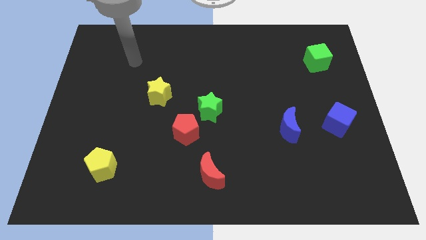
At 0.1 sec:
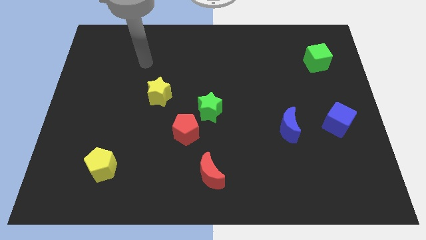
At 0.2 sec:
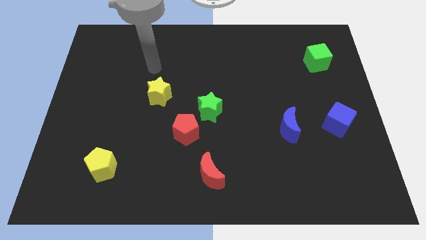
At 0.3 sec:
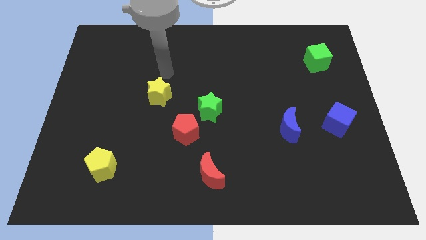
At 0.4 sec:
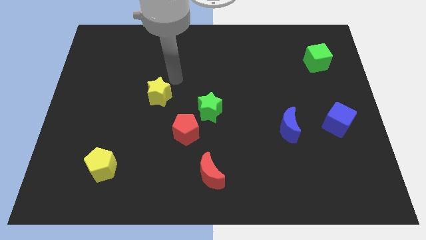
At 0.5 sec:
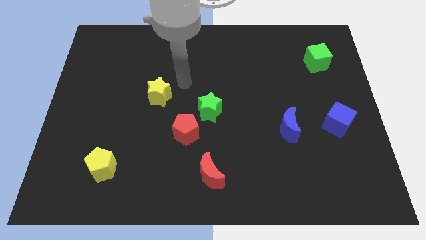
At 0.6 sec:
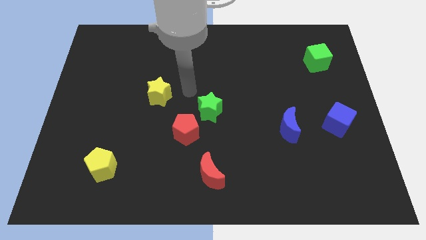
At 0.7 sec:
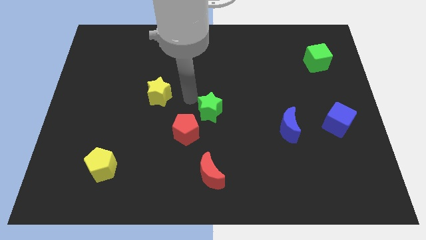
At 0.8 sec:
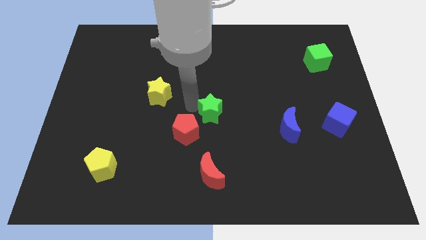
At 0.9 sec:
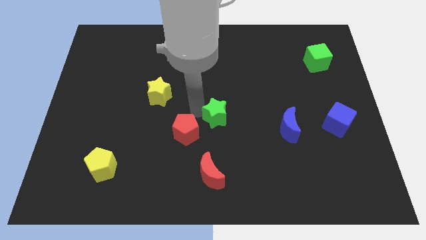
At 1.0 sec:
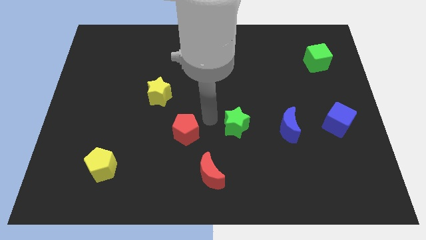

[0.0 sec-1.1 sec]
separate the red pentagon from the green star

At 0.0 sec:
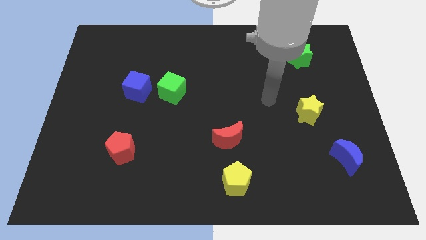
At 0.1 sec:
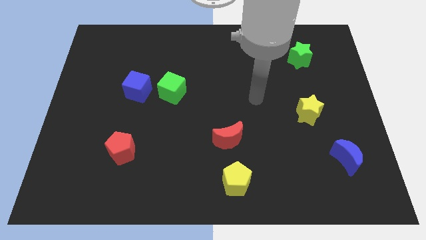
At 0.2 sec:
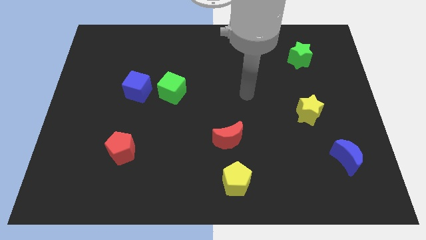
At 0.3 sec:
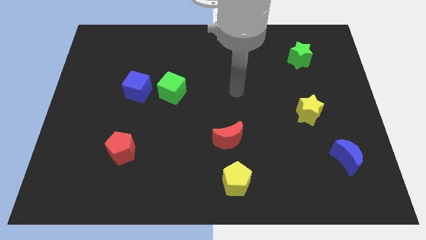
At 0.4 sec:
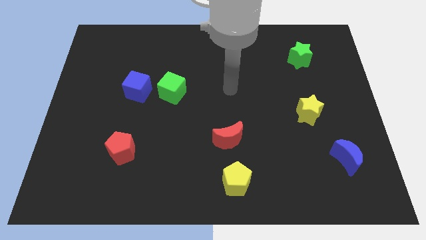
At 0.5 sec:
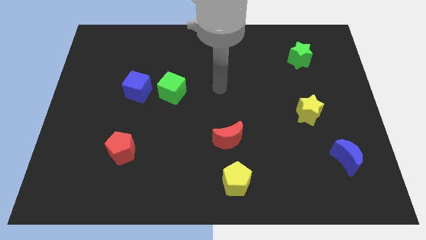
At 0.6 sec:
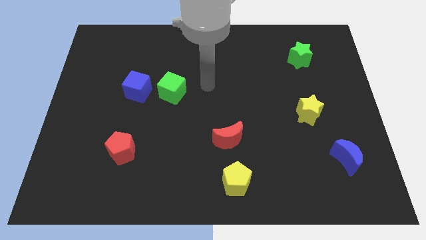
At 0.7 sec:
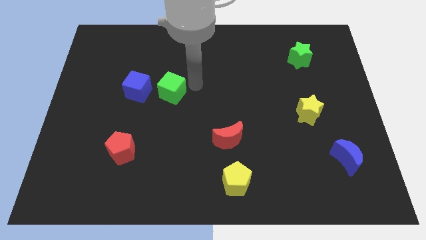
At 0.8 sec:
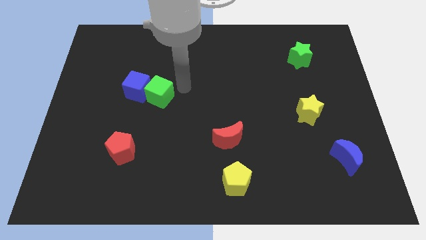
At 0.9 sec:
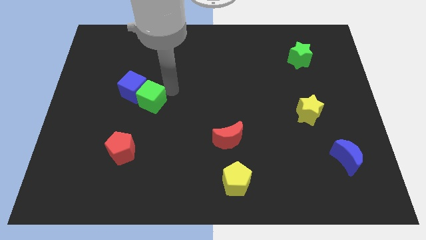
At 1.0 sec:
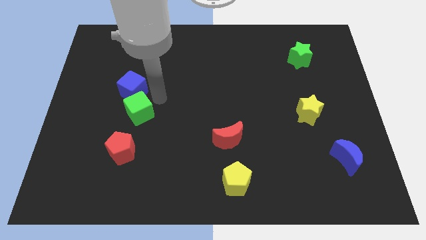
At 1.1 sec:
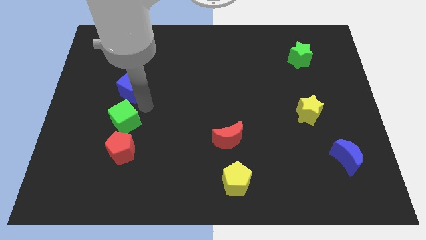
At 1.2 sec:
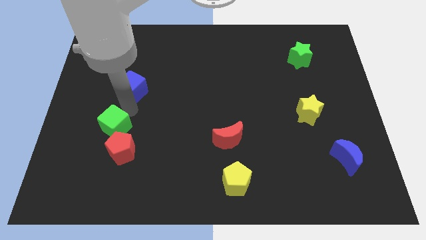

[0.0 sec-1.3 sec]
separate the blue cube from the green cube

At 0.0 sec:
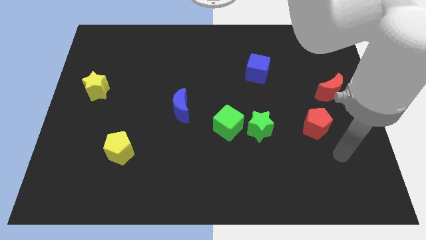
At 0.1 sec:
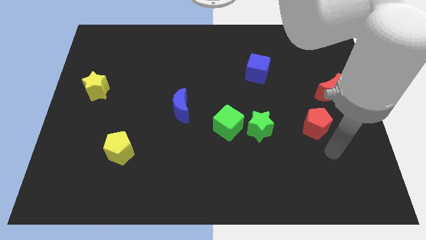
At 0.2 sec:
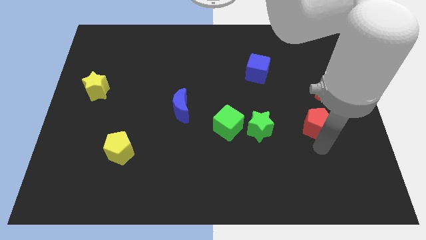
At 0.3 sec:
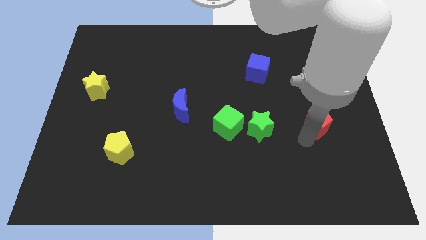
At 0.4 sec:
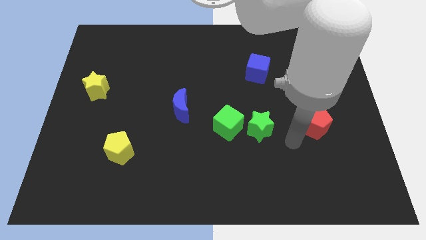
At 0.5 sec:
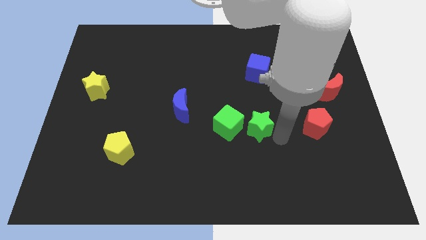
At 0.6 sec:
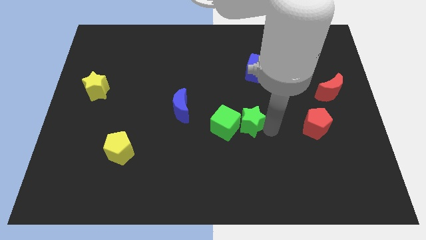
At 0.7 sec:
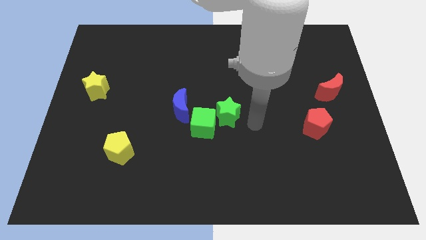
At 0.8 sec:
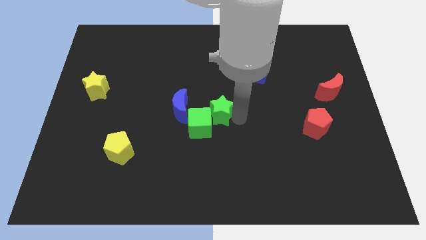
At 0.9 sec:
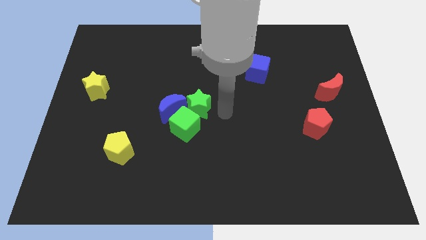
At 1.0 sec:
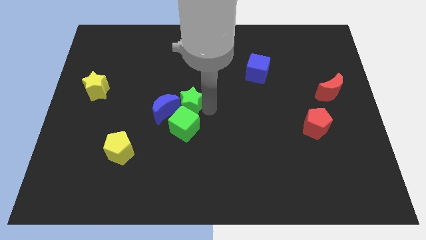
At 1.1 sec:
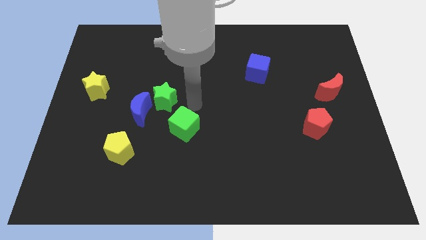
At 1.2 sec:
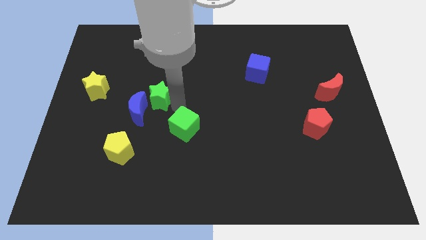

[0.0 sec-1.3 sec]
move the green cube away from the green star

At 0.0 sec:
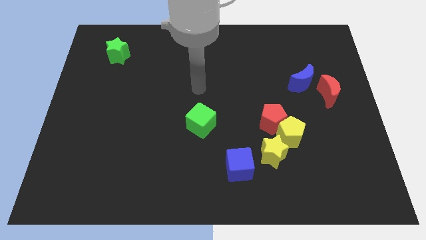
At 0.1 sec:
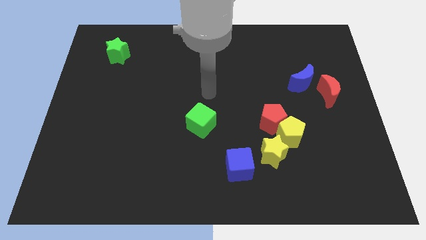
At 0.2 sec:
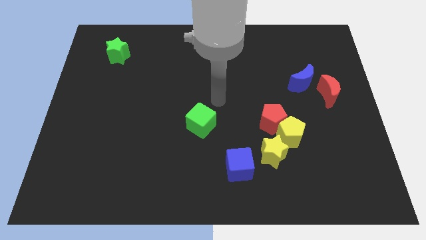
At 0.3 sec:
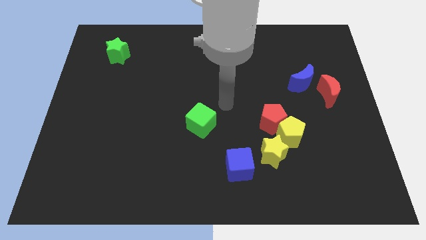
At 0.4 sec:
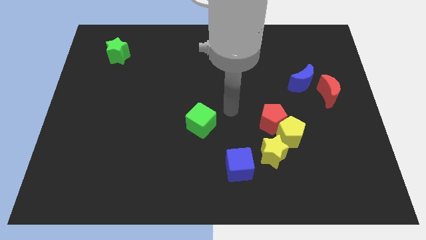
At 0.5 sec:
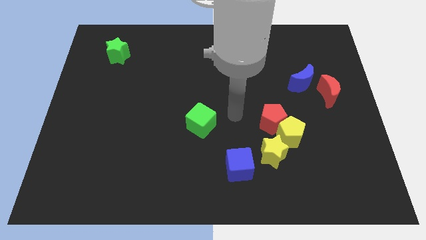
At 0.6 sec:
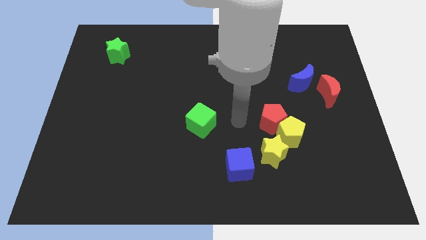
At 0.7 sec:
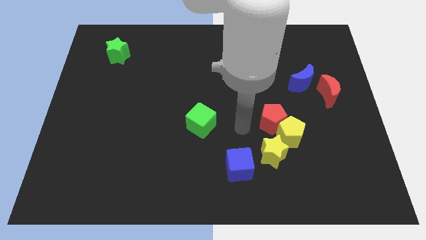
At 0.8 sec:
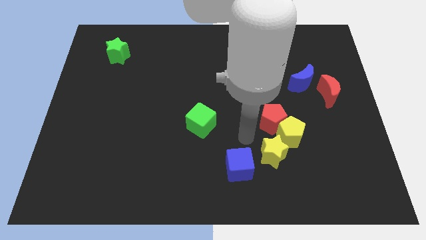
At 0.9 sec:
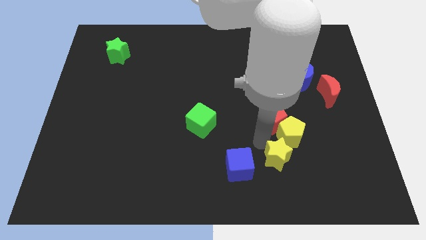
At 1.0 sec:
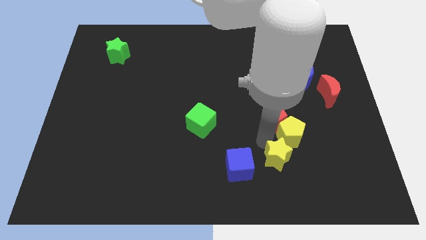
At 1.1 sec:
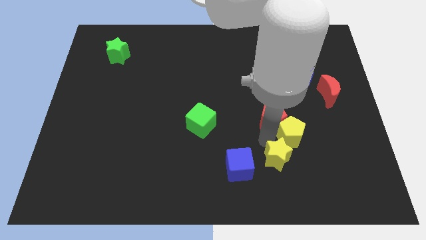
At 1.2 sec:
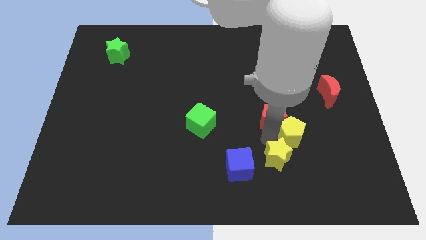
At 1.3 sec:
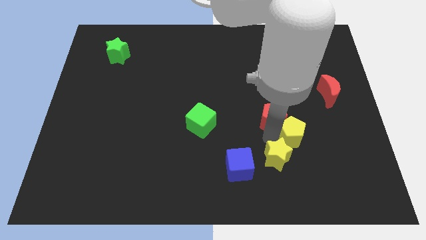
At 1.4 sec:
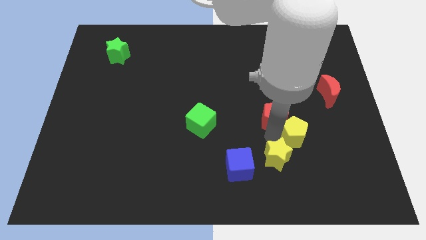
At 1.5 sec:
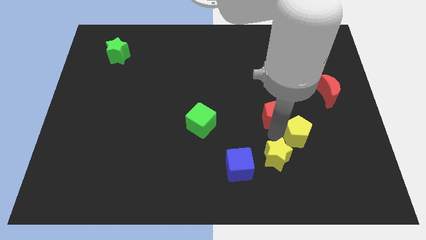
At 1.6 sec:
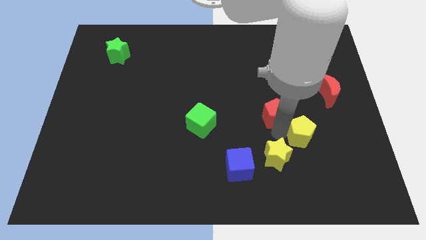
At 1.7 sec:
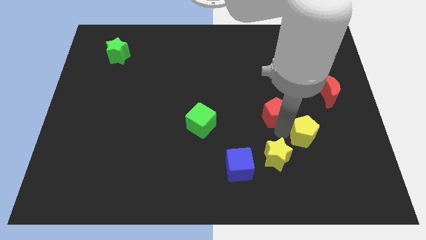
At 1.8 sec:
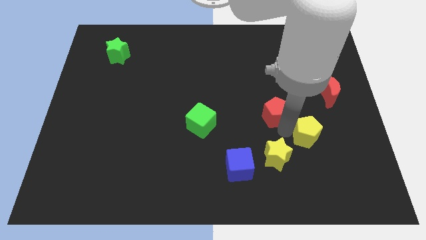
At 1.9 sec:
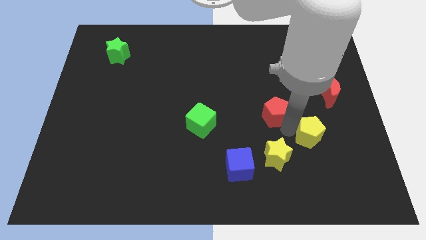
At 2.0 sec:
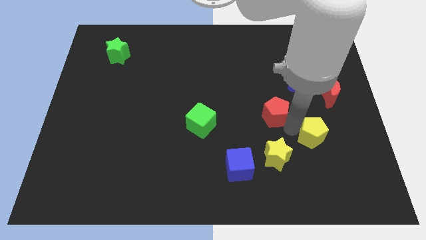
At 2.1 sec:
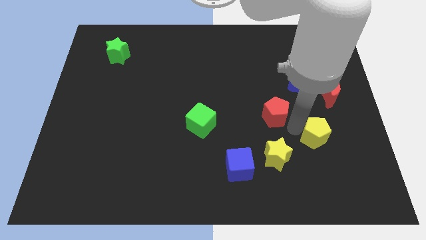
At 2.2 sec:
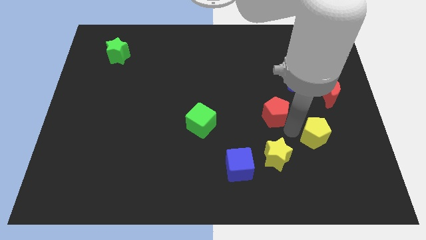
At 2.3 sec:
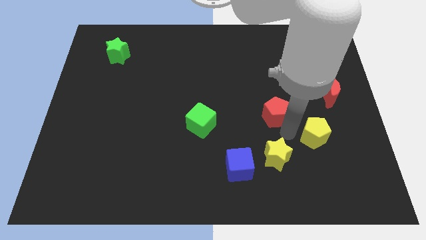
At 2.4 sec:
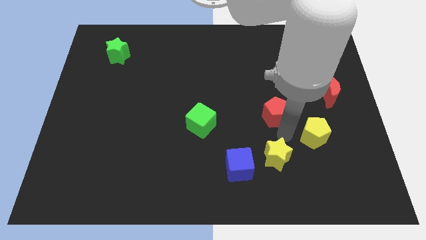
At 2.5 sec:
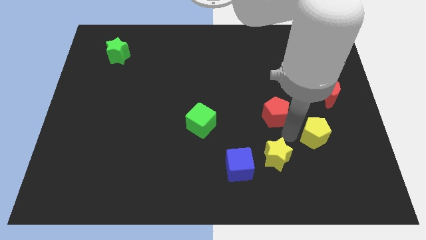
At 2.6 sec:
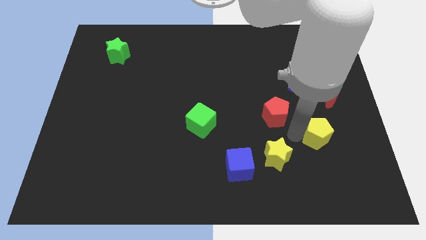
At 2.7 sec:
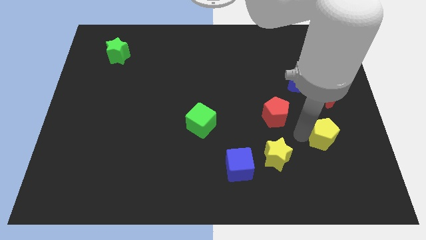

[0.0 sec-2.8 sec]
pull the yellow pentagon apart from the red pentagon and yellow star

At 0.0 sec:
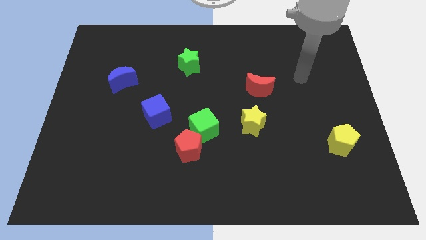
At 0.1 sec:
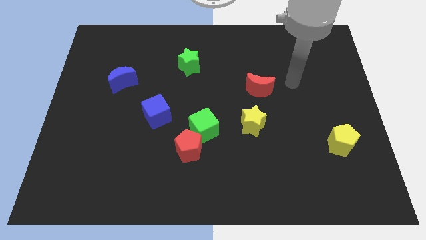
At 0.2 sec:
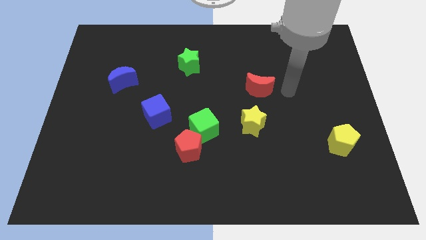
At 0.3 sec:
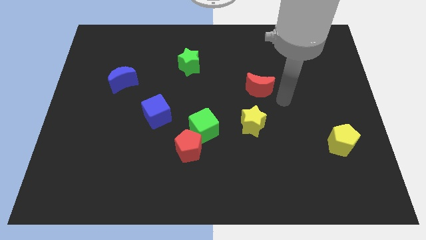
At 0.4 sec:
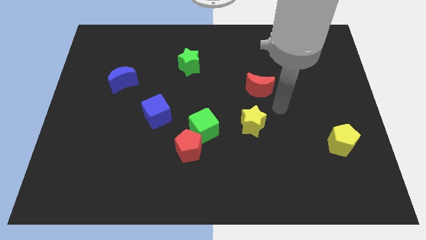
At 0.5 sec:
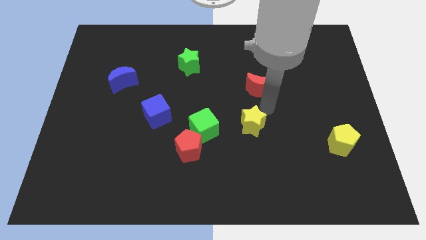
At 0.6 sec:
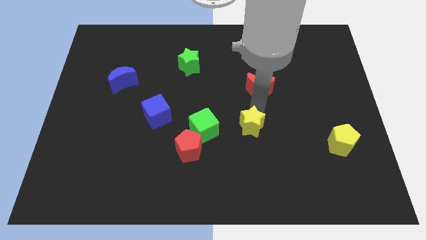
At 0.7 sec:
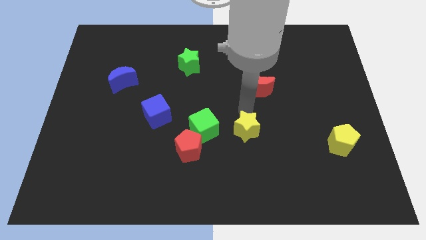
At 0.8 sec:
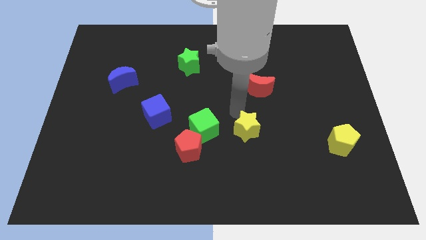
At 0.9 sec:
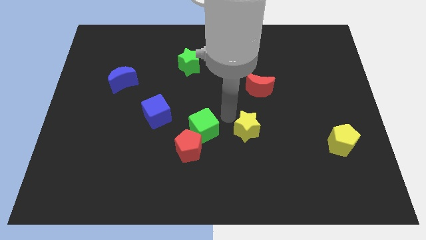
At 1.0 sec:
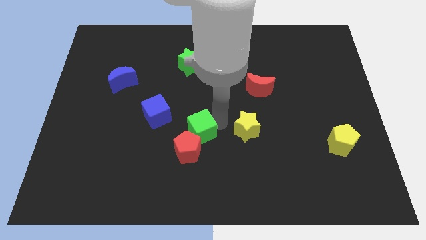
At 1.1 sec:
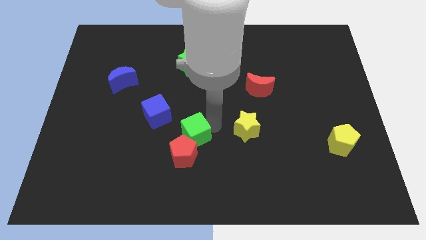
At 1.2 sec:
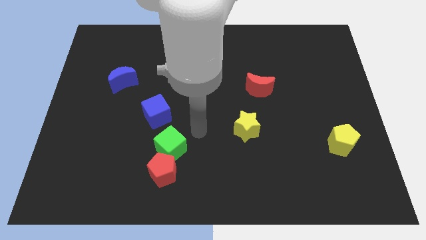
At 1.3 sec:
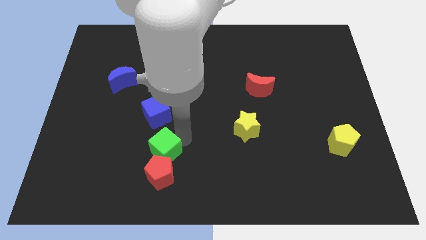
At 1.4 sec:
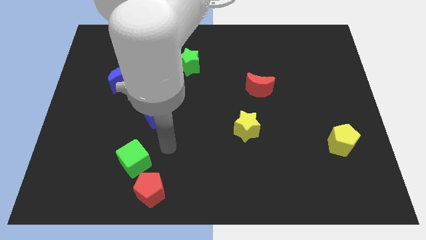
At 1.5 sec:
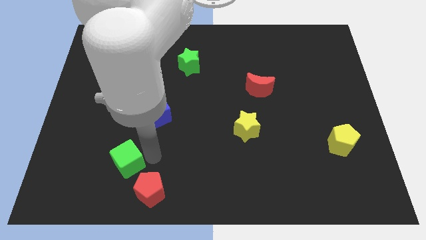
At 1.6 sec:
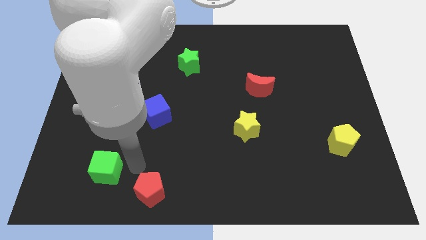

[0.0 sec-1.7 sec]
separate the red pentagon from the green cube

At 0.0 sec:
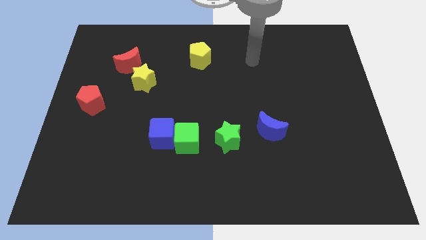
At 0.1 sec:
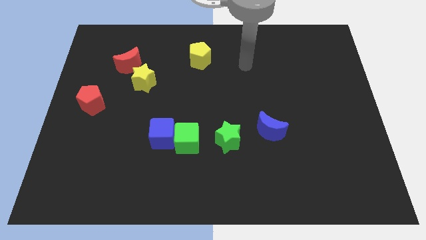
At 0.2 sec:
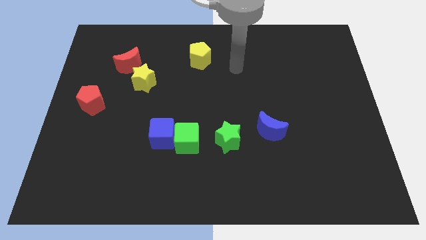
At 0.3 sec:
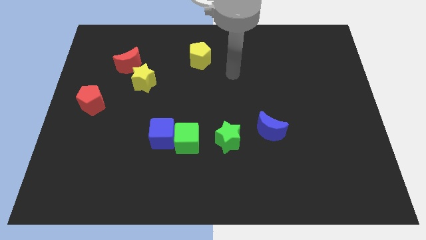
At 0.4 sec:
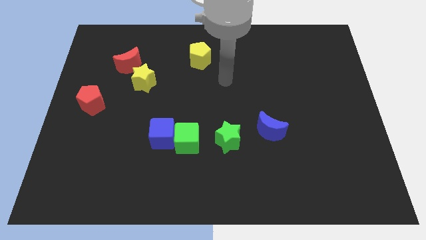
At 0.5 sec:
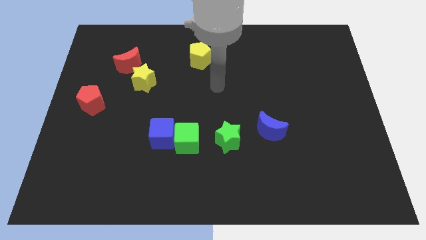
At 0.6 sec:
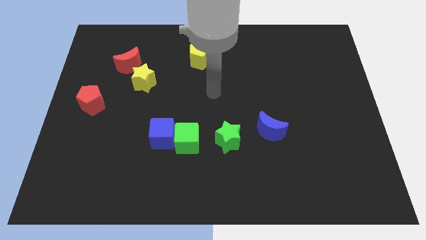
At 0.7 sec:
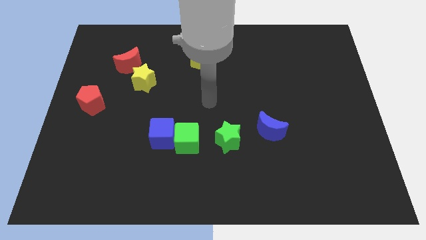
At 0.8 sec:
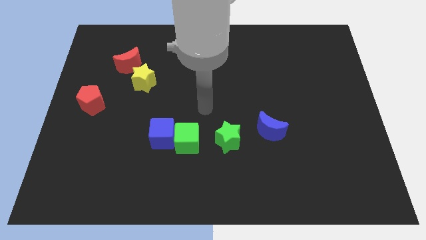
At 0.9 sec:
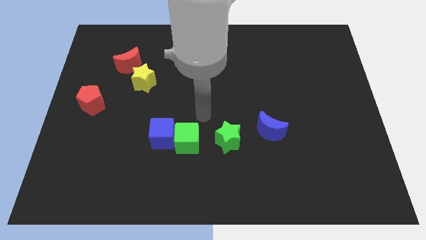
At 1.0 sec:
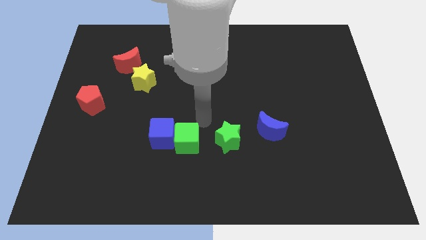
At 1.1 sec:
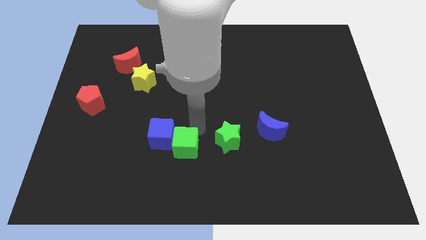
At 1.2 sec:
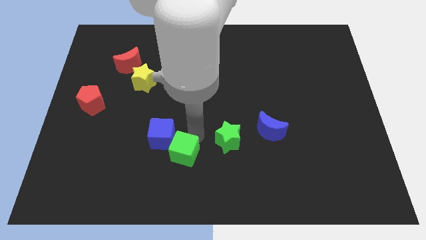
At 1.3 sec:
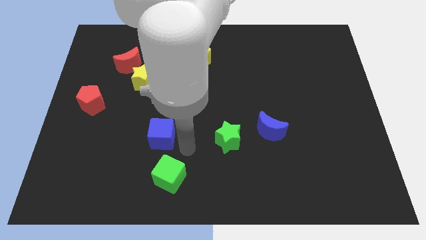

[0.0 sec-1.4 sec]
pull the blue cube apart from the green cube
